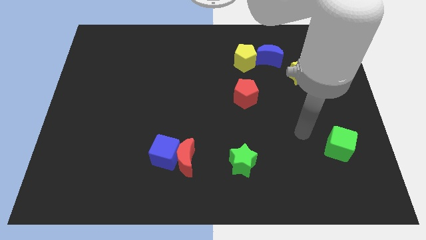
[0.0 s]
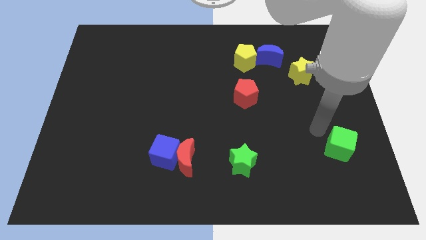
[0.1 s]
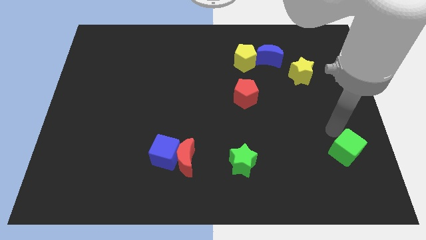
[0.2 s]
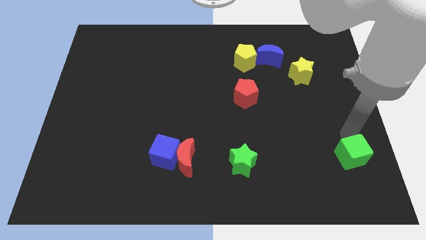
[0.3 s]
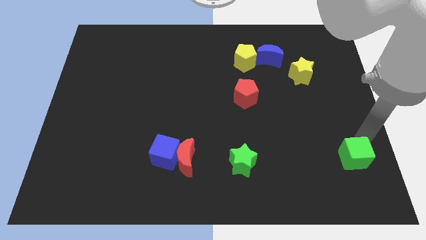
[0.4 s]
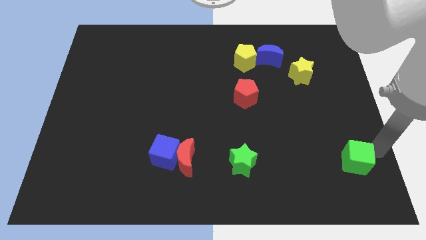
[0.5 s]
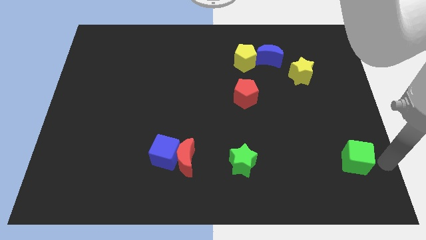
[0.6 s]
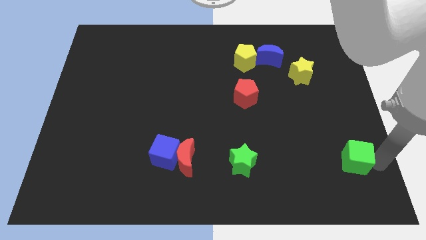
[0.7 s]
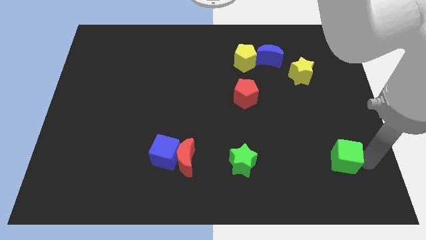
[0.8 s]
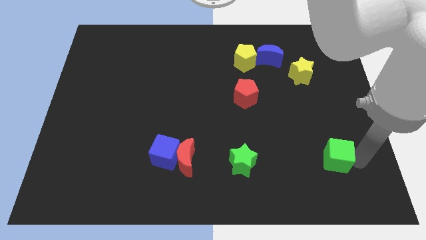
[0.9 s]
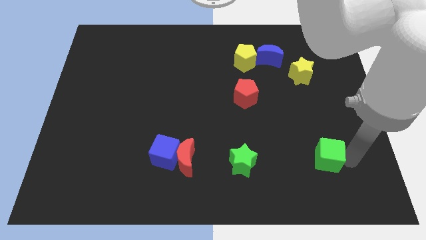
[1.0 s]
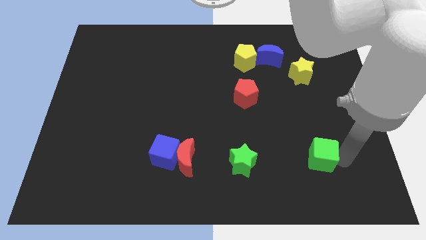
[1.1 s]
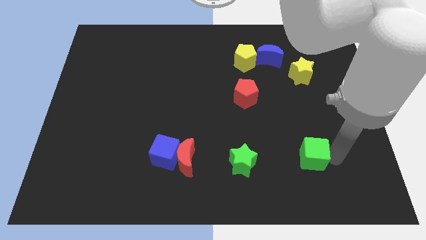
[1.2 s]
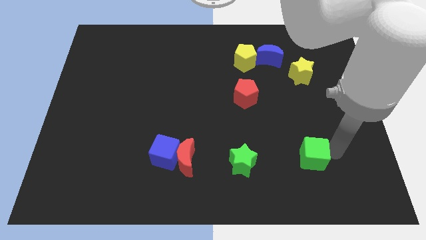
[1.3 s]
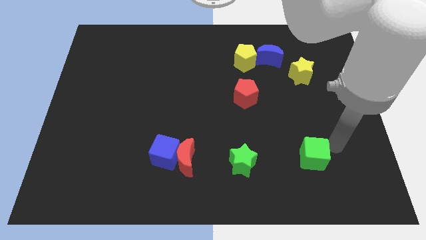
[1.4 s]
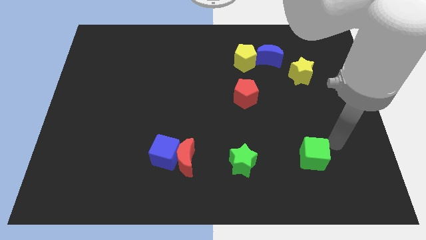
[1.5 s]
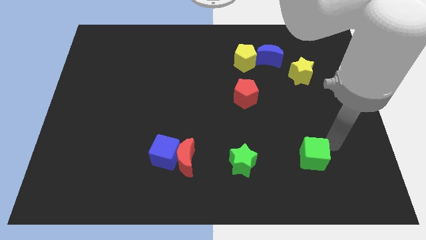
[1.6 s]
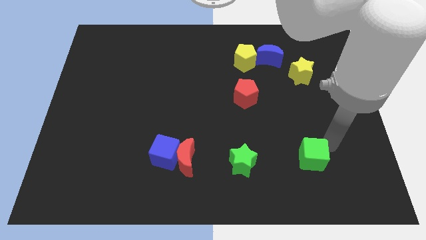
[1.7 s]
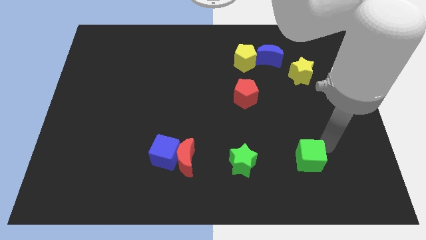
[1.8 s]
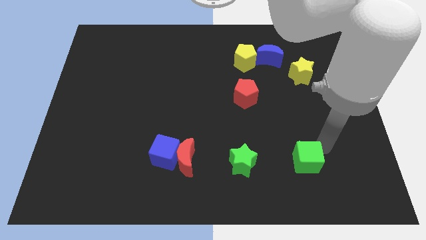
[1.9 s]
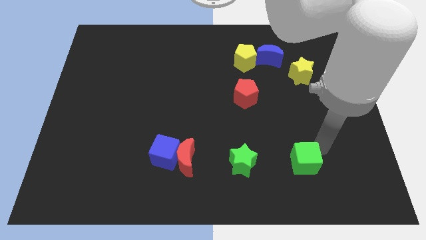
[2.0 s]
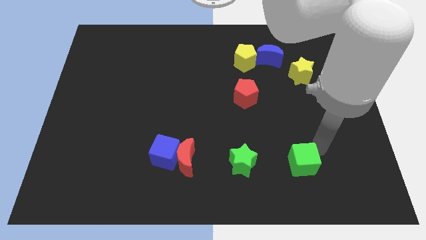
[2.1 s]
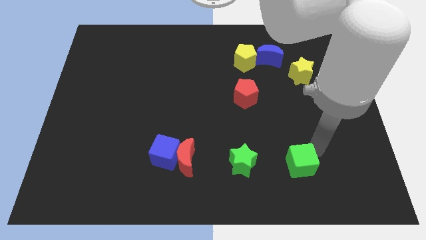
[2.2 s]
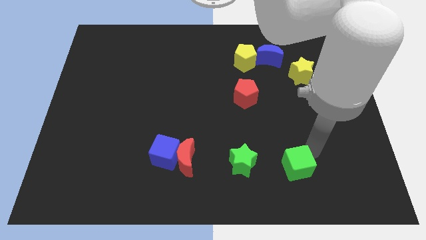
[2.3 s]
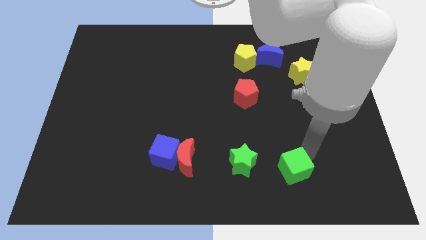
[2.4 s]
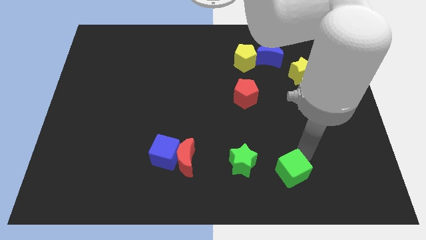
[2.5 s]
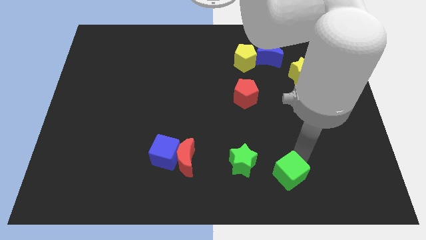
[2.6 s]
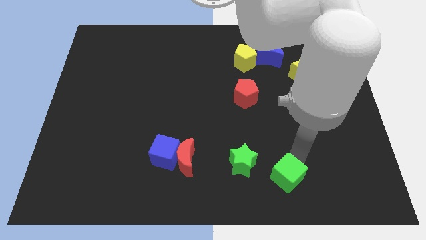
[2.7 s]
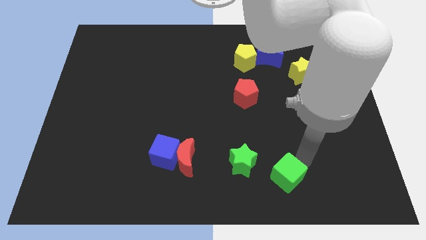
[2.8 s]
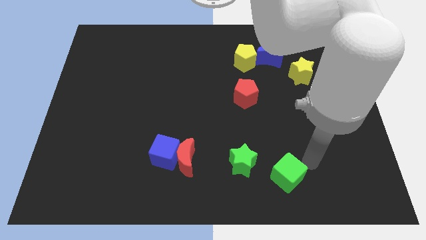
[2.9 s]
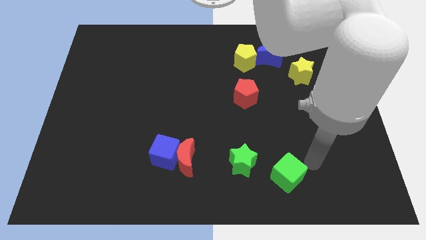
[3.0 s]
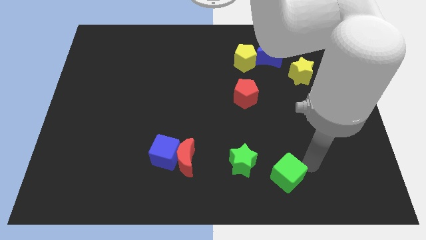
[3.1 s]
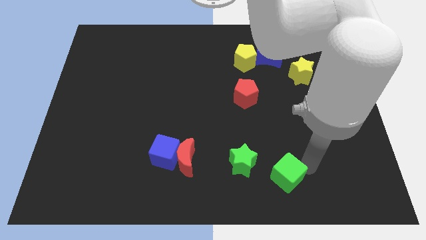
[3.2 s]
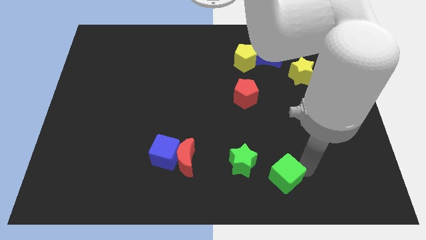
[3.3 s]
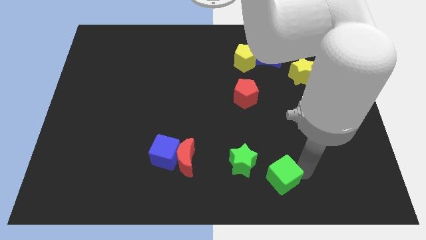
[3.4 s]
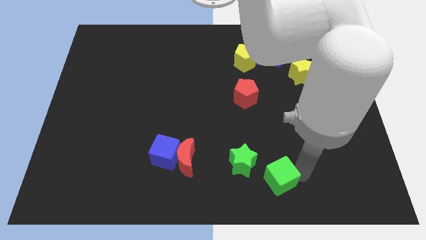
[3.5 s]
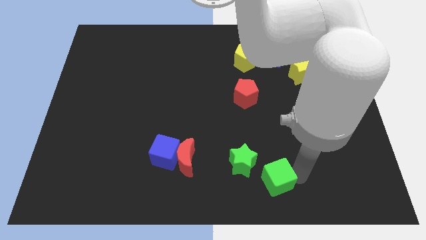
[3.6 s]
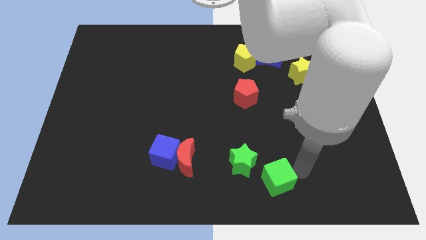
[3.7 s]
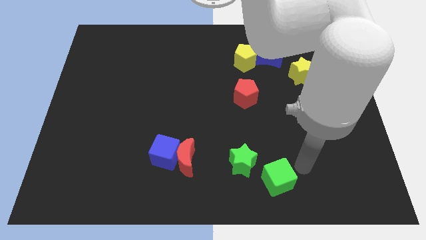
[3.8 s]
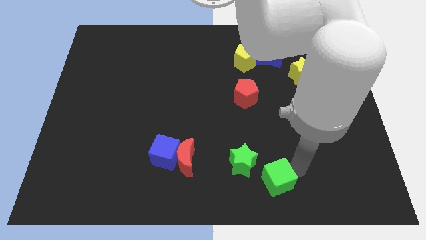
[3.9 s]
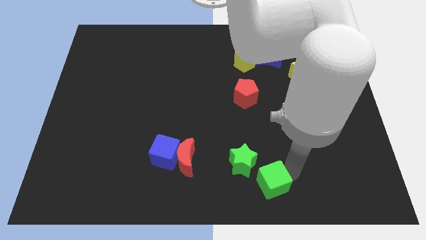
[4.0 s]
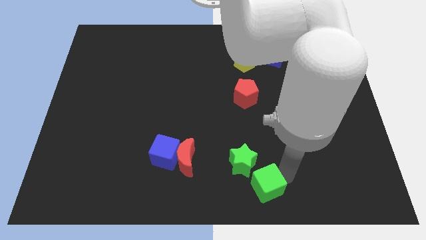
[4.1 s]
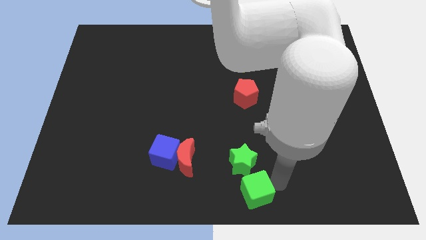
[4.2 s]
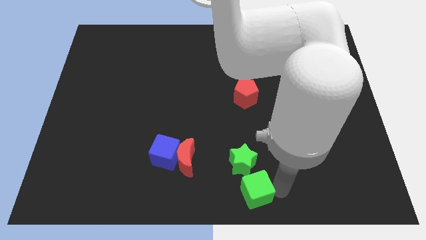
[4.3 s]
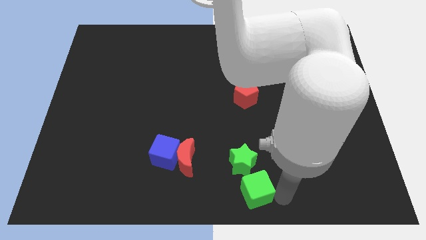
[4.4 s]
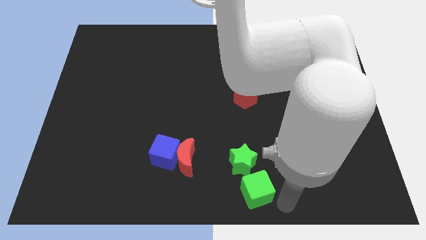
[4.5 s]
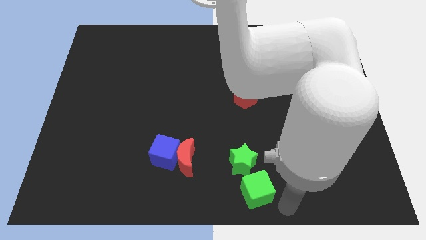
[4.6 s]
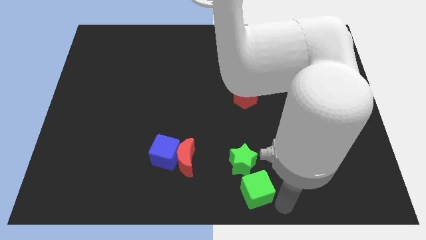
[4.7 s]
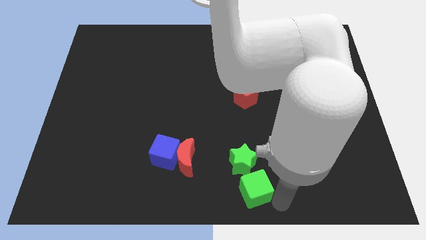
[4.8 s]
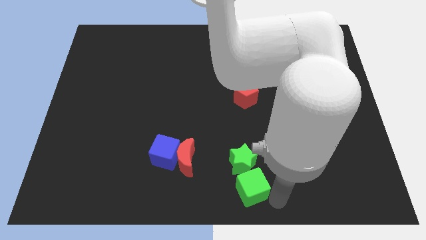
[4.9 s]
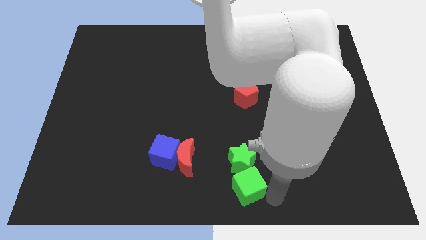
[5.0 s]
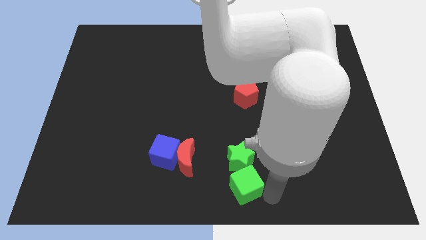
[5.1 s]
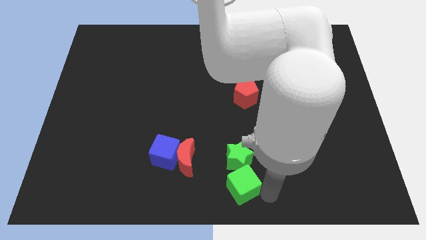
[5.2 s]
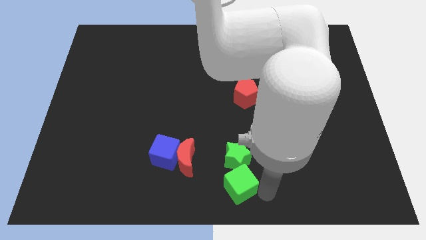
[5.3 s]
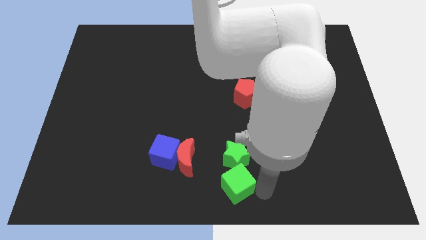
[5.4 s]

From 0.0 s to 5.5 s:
slide the green cube to the bottom right side of the red moon
